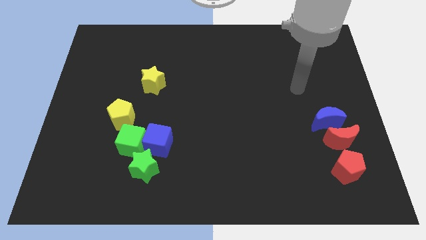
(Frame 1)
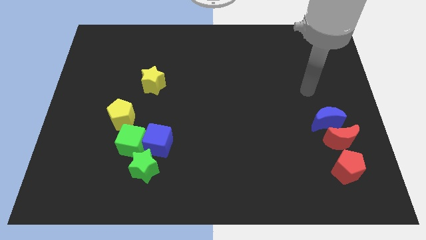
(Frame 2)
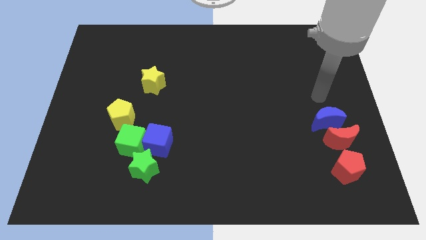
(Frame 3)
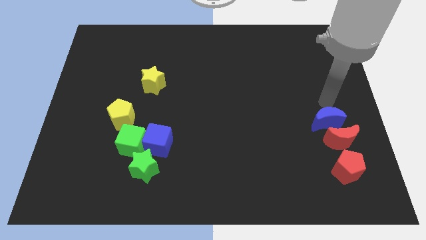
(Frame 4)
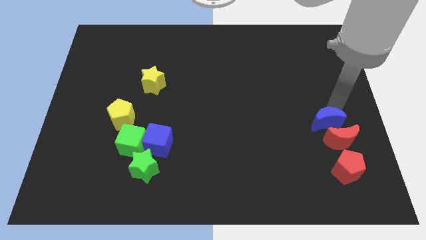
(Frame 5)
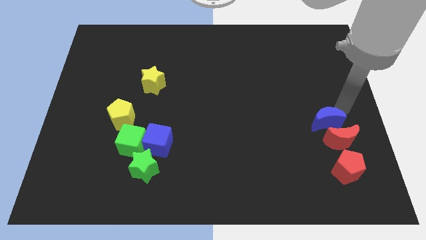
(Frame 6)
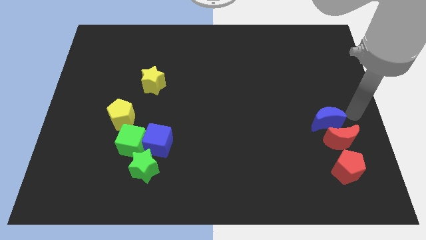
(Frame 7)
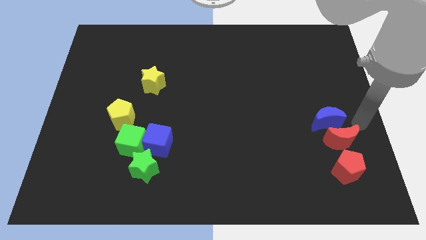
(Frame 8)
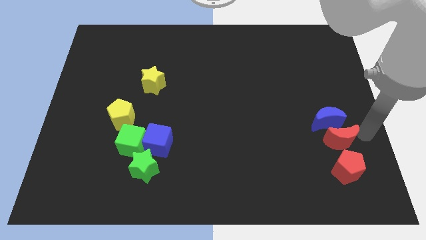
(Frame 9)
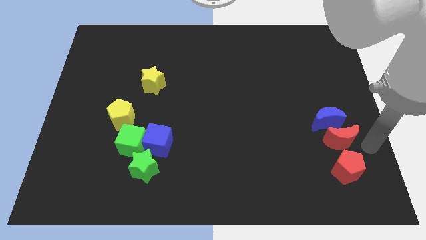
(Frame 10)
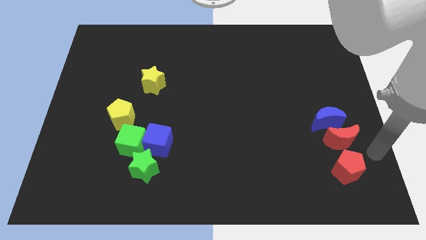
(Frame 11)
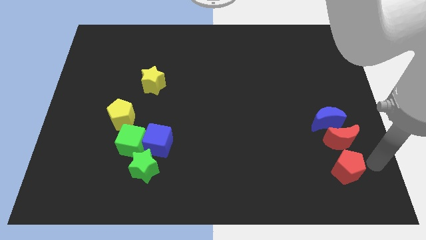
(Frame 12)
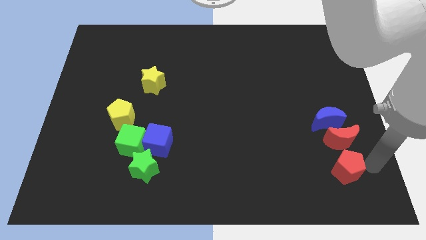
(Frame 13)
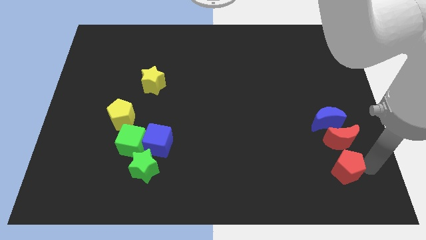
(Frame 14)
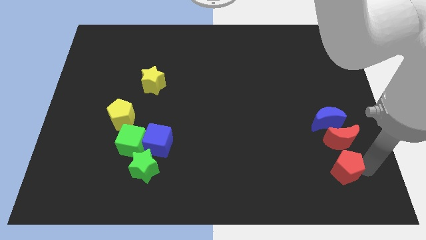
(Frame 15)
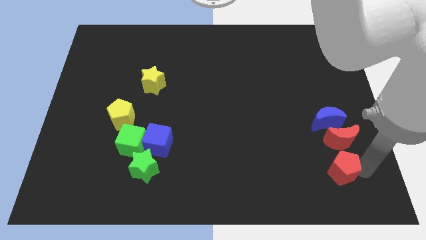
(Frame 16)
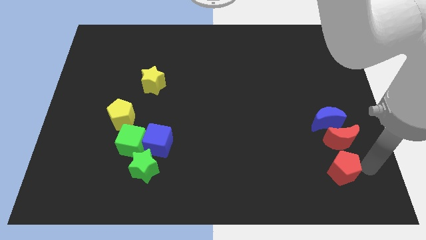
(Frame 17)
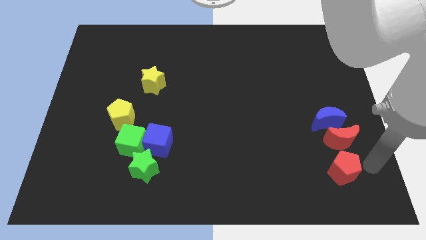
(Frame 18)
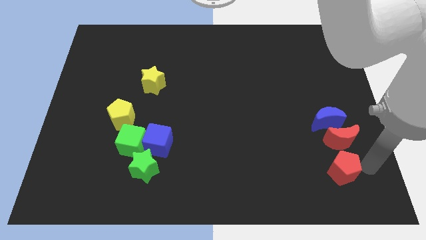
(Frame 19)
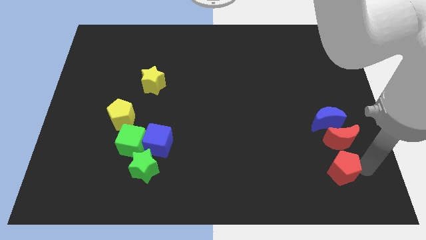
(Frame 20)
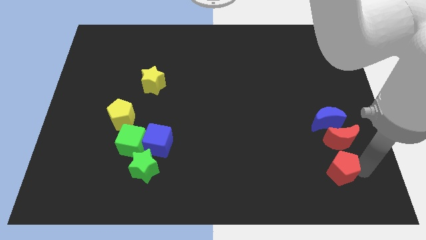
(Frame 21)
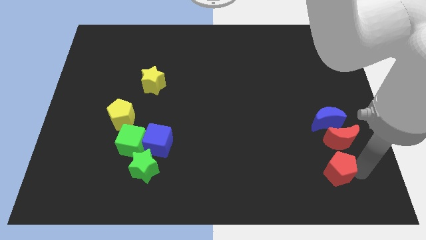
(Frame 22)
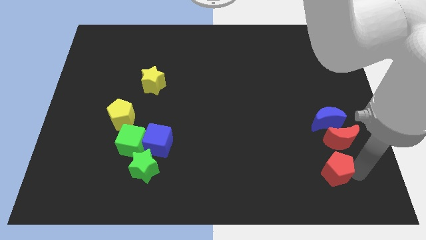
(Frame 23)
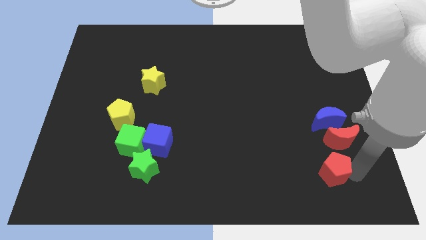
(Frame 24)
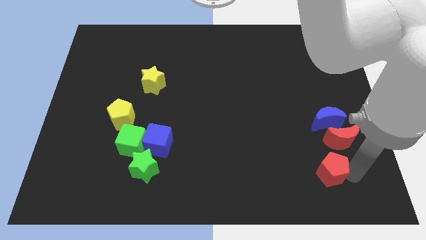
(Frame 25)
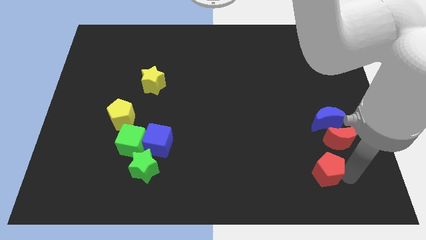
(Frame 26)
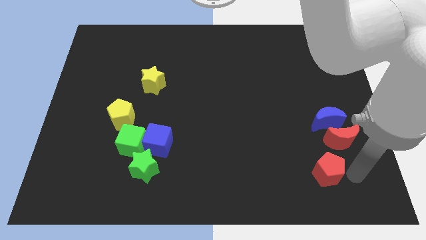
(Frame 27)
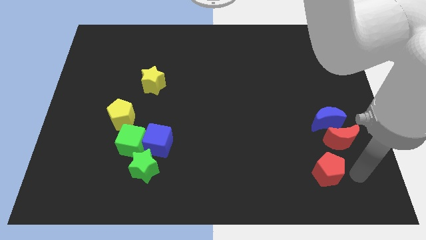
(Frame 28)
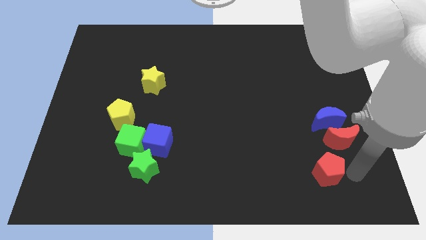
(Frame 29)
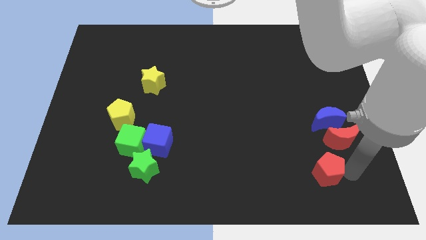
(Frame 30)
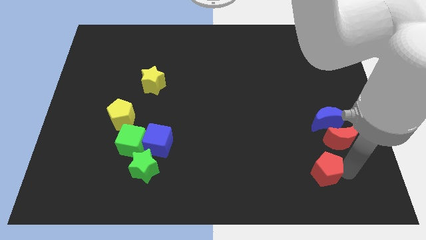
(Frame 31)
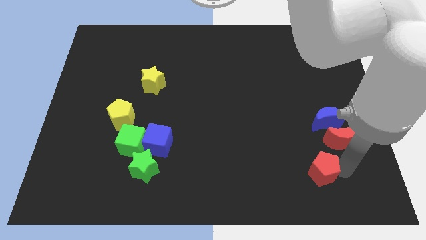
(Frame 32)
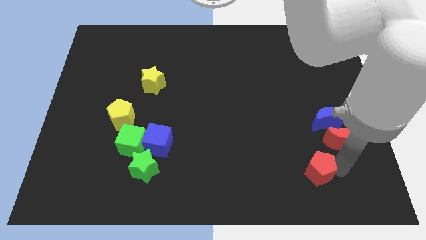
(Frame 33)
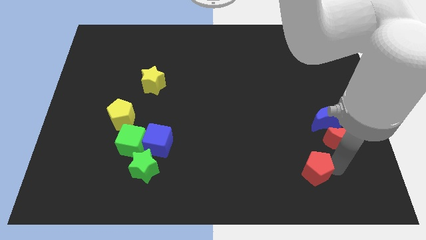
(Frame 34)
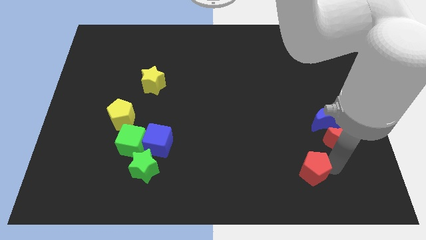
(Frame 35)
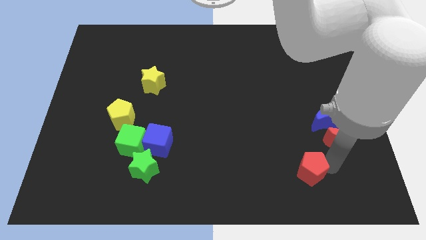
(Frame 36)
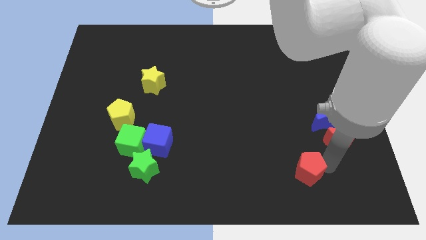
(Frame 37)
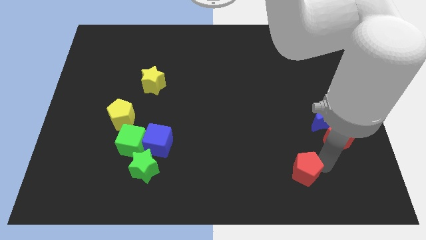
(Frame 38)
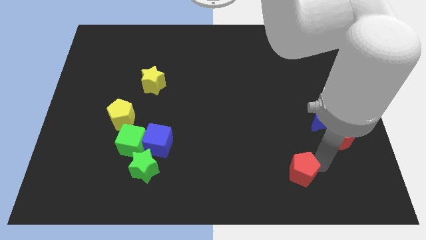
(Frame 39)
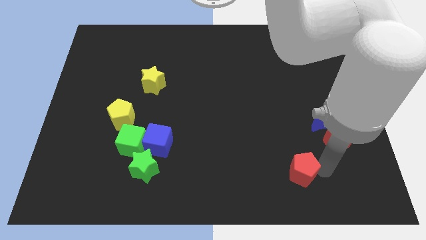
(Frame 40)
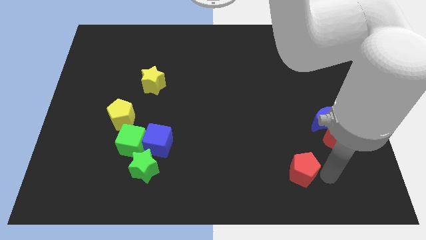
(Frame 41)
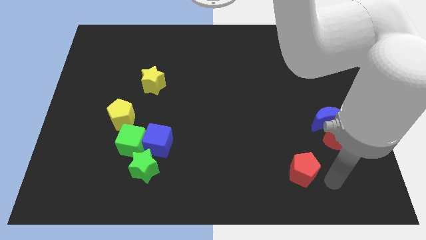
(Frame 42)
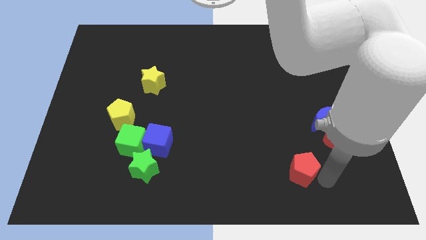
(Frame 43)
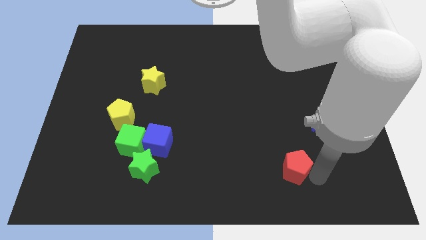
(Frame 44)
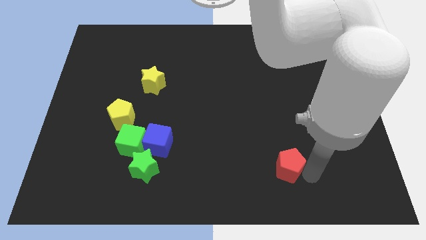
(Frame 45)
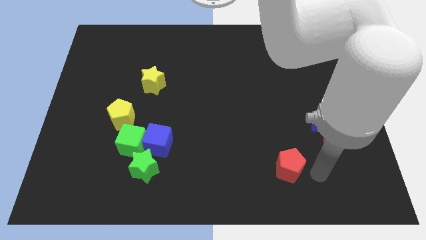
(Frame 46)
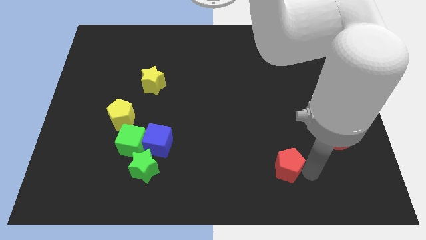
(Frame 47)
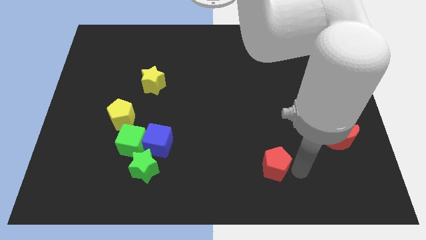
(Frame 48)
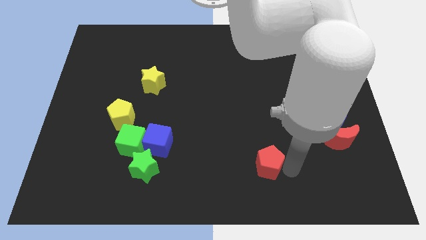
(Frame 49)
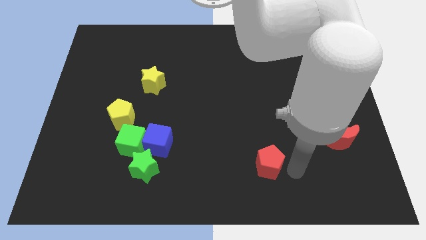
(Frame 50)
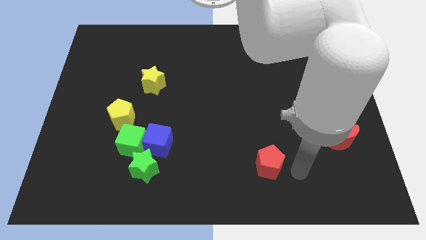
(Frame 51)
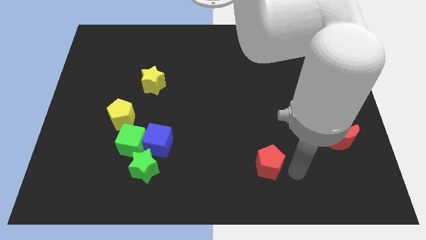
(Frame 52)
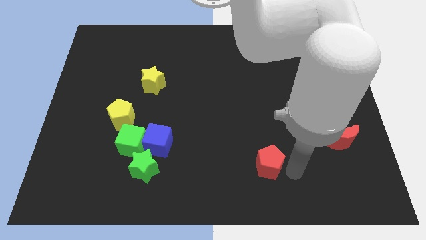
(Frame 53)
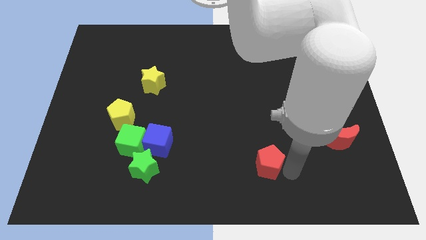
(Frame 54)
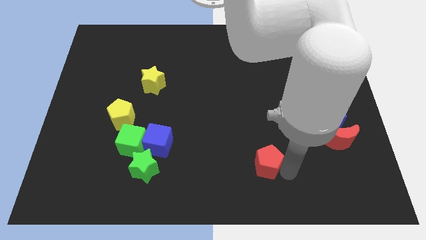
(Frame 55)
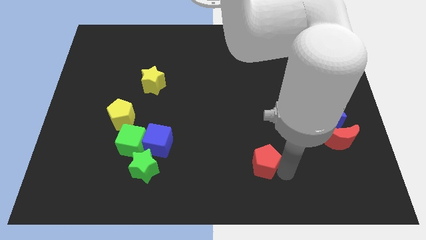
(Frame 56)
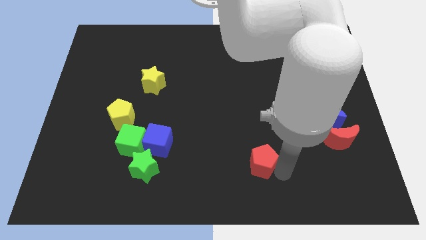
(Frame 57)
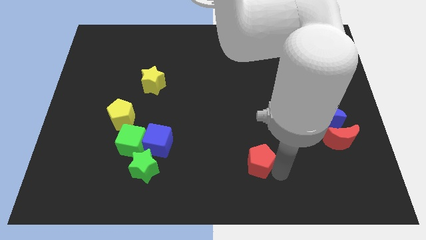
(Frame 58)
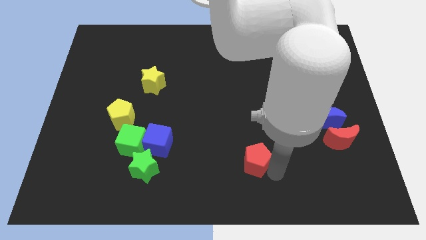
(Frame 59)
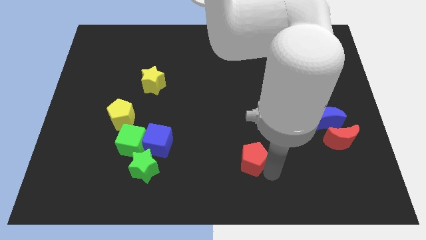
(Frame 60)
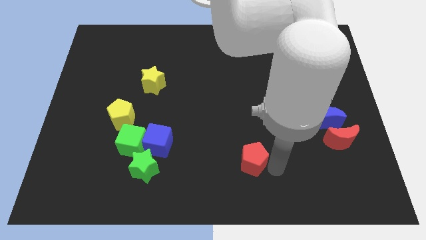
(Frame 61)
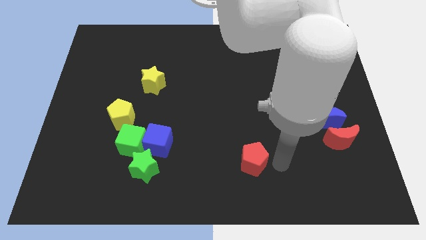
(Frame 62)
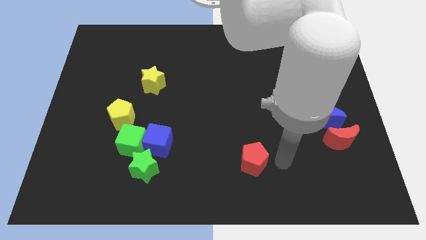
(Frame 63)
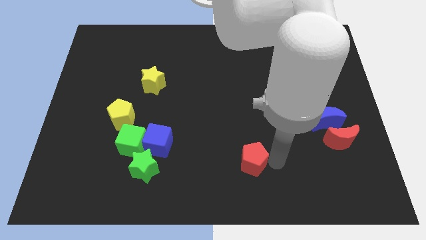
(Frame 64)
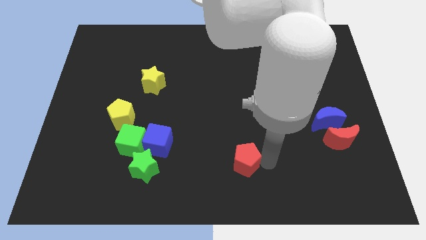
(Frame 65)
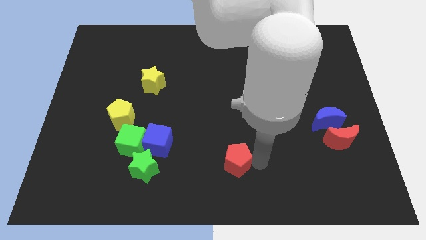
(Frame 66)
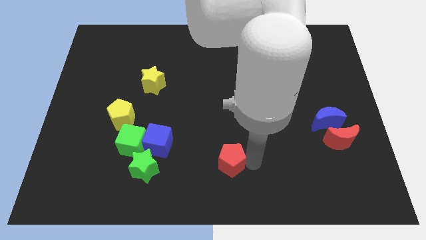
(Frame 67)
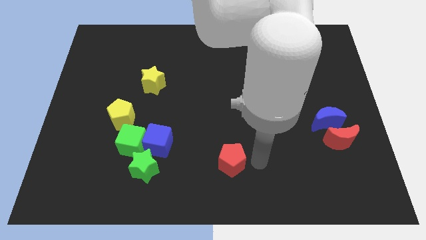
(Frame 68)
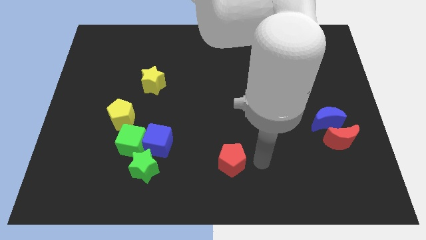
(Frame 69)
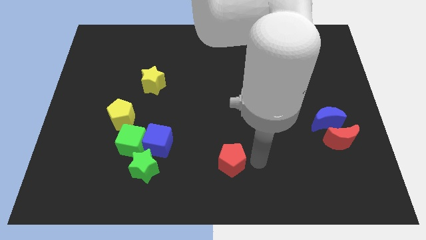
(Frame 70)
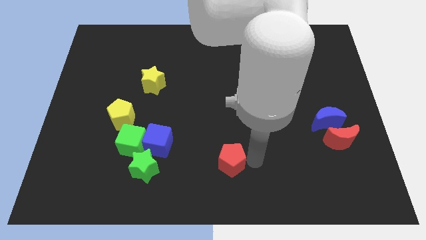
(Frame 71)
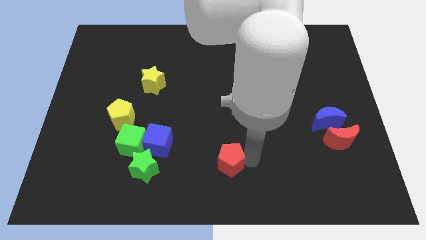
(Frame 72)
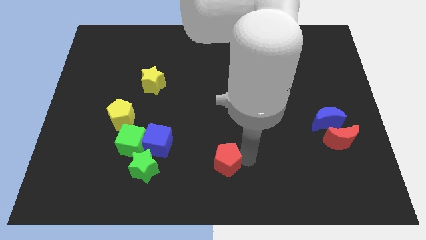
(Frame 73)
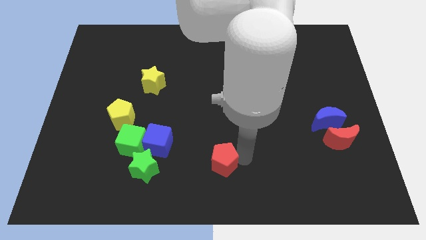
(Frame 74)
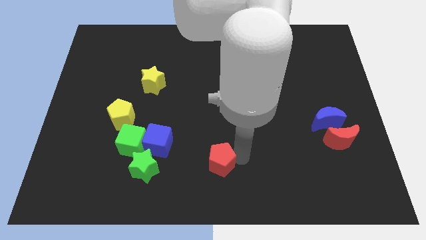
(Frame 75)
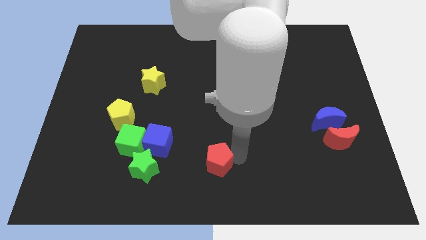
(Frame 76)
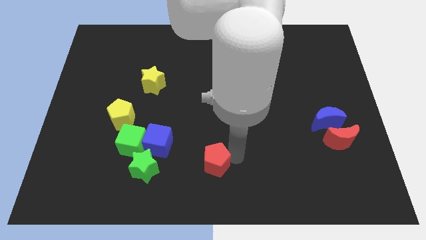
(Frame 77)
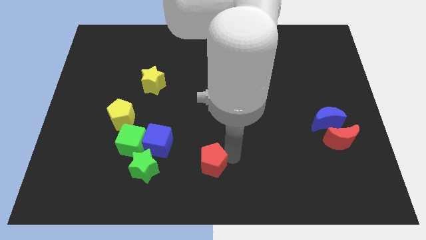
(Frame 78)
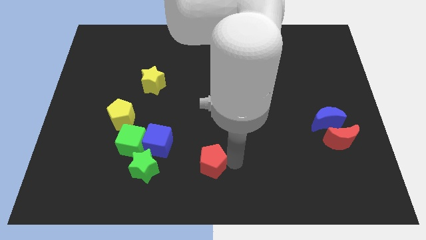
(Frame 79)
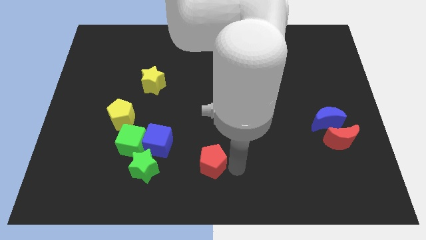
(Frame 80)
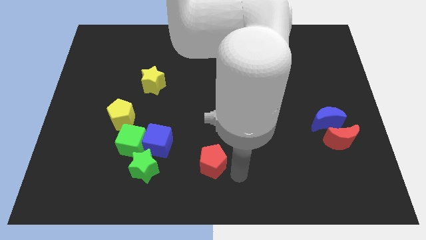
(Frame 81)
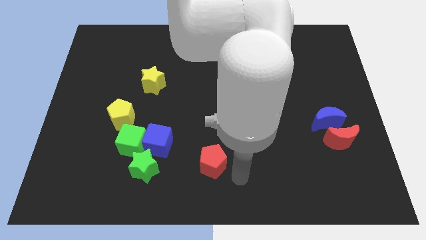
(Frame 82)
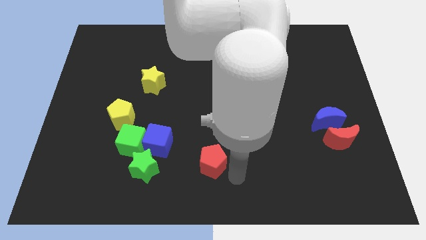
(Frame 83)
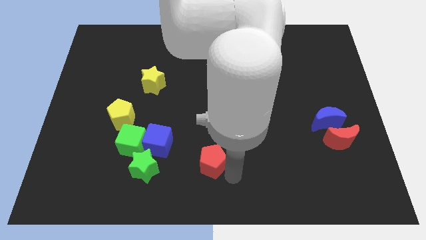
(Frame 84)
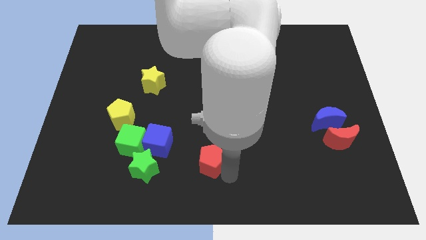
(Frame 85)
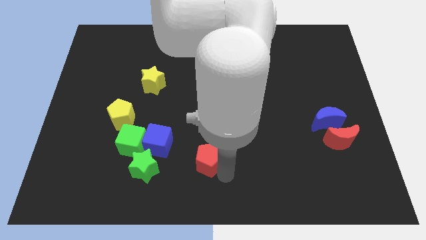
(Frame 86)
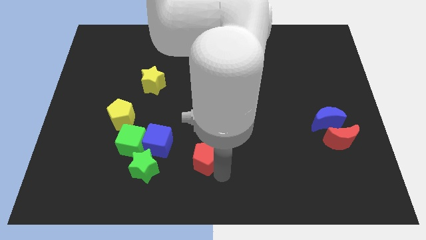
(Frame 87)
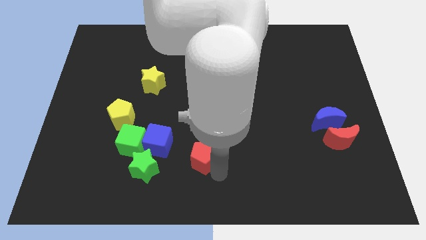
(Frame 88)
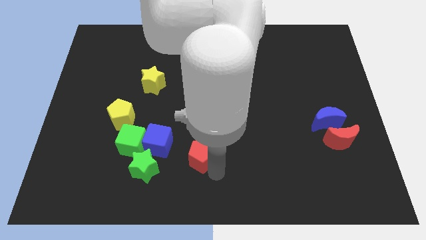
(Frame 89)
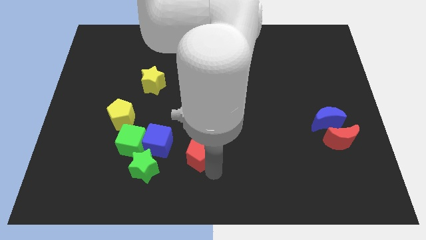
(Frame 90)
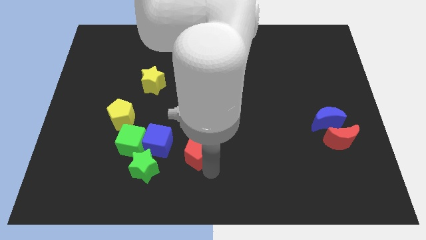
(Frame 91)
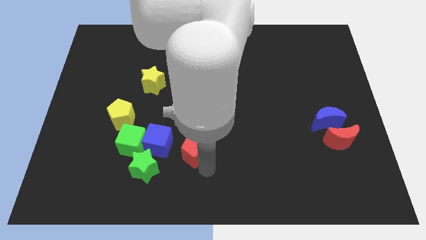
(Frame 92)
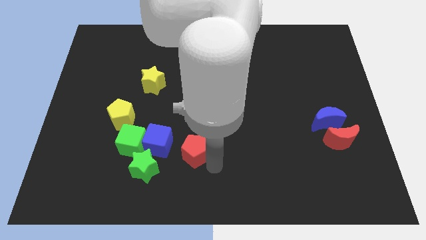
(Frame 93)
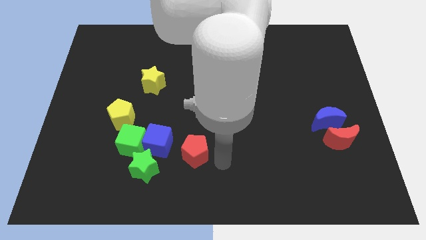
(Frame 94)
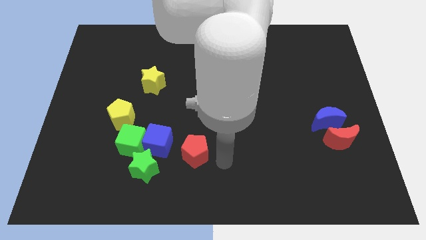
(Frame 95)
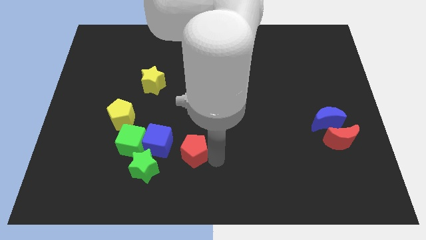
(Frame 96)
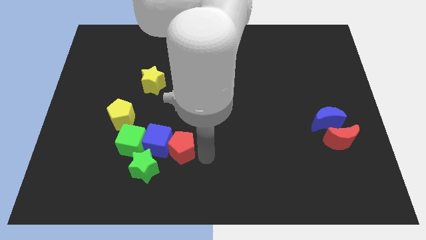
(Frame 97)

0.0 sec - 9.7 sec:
put the red pentagon next to the blue cube
